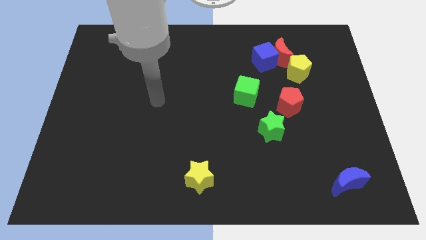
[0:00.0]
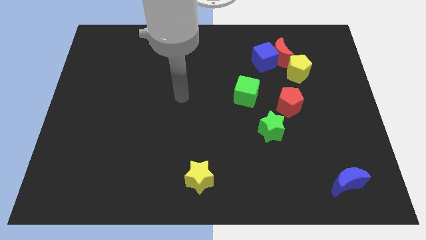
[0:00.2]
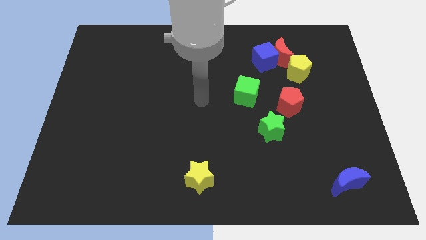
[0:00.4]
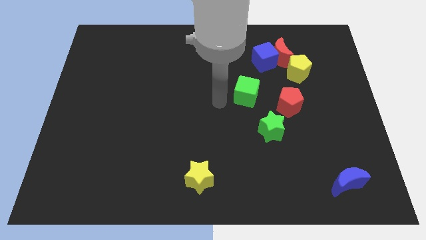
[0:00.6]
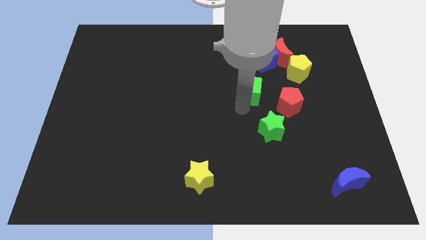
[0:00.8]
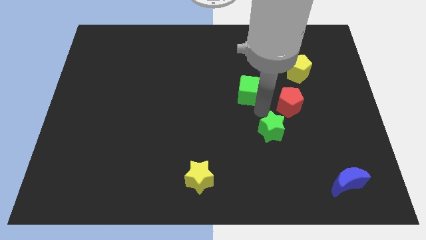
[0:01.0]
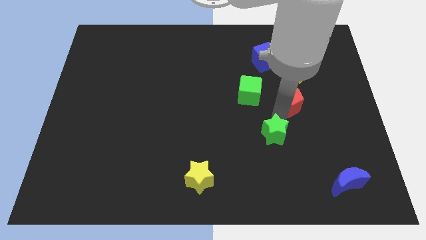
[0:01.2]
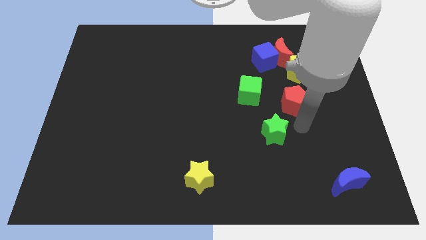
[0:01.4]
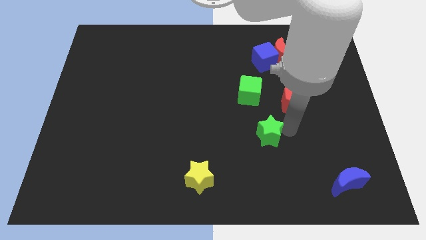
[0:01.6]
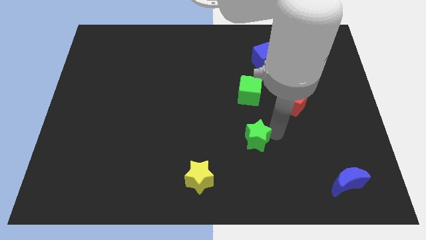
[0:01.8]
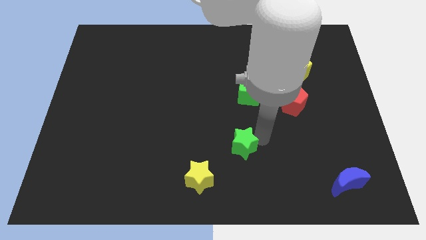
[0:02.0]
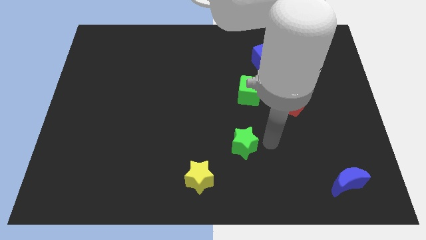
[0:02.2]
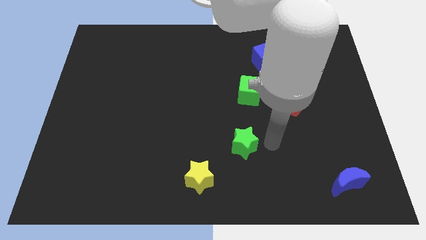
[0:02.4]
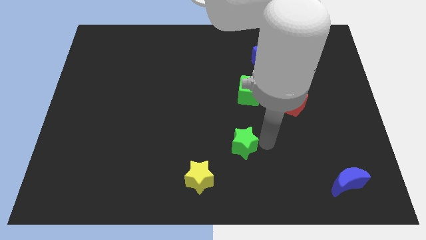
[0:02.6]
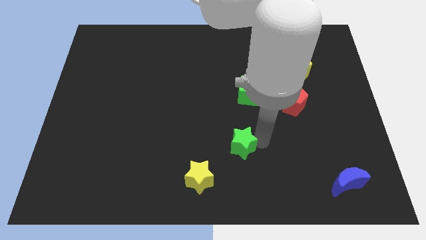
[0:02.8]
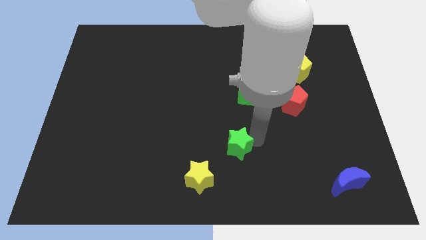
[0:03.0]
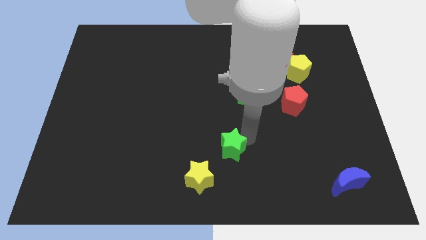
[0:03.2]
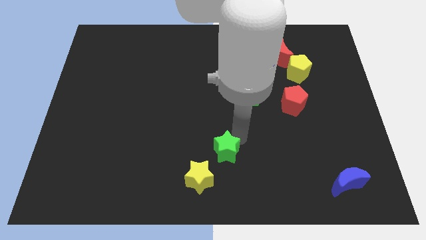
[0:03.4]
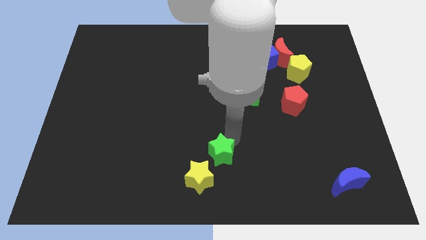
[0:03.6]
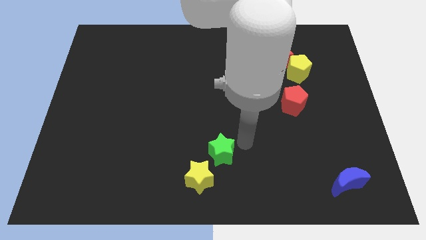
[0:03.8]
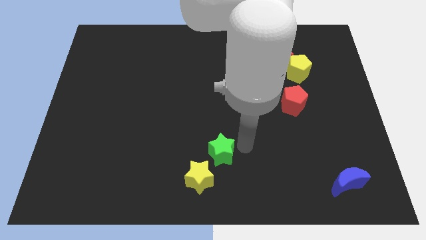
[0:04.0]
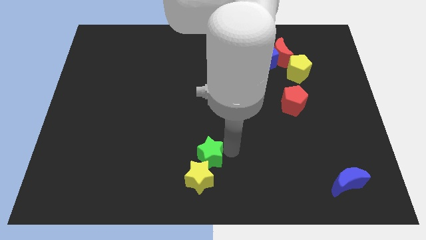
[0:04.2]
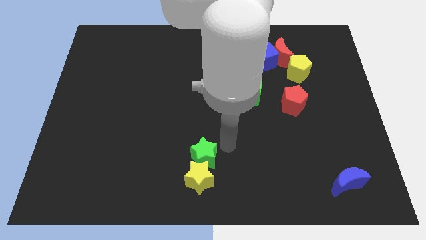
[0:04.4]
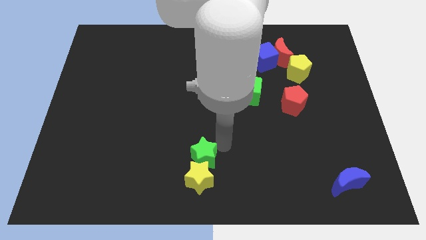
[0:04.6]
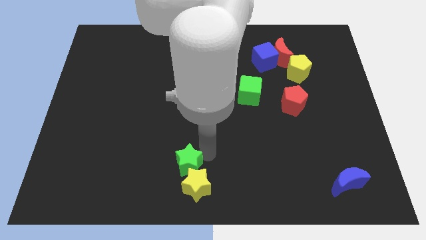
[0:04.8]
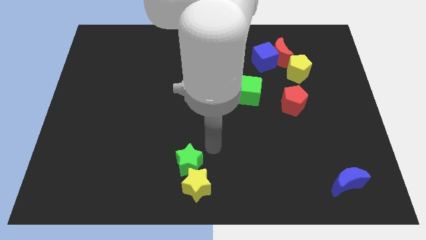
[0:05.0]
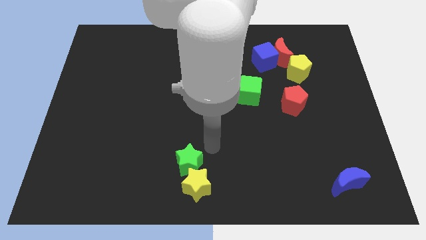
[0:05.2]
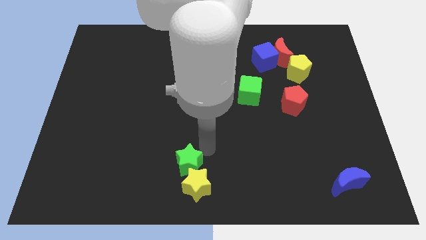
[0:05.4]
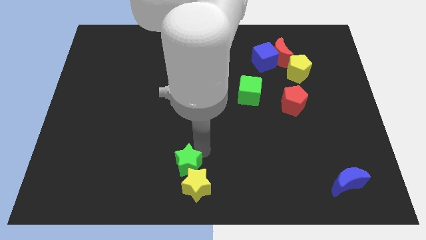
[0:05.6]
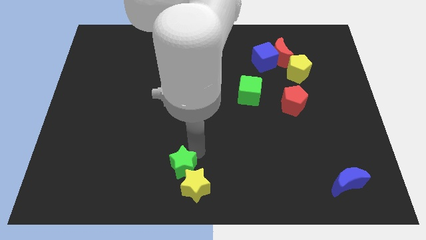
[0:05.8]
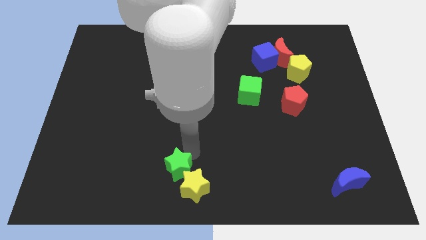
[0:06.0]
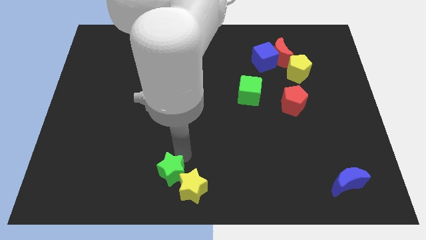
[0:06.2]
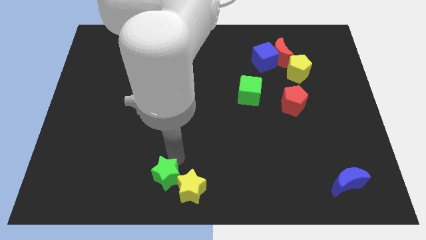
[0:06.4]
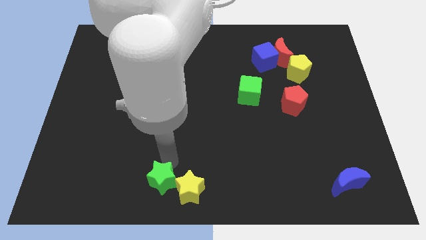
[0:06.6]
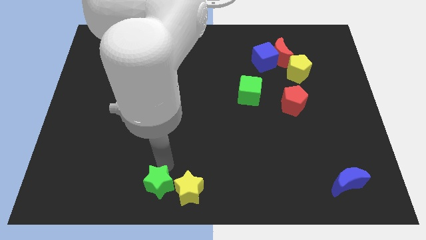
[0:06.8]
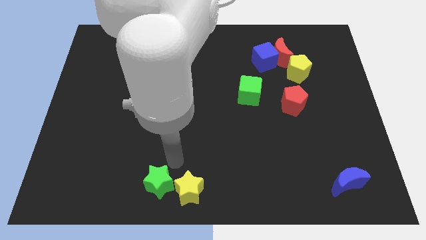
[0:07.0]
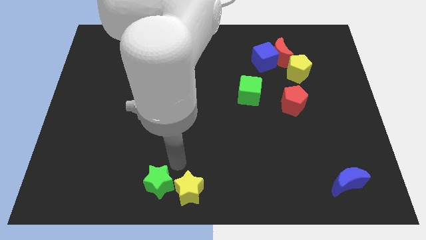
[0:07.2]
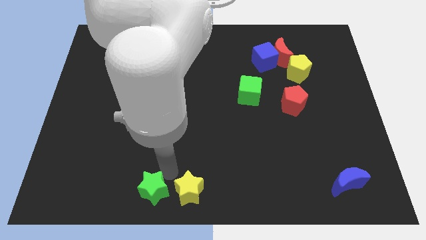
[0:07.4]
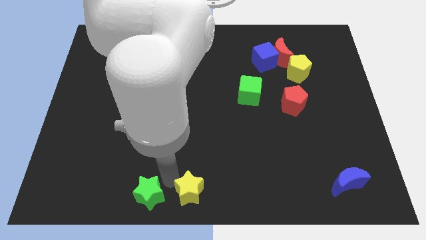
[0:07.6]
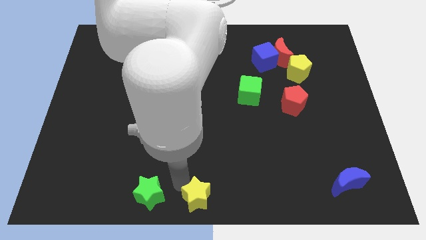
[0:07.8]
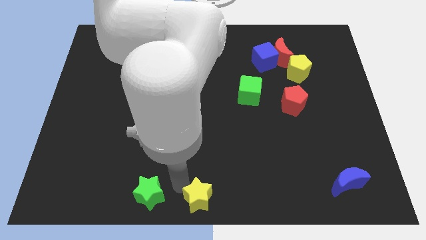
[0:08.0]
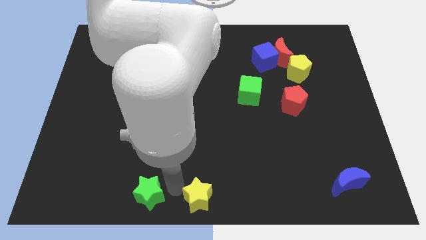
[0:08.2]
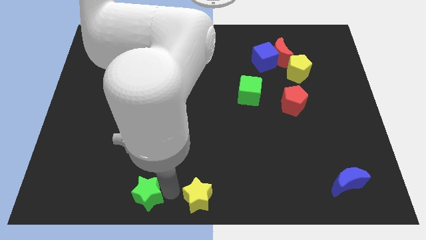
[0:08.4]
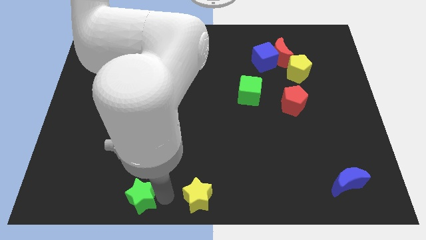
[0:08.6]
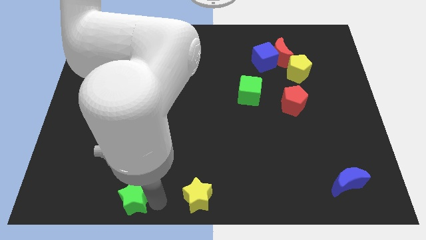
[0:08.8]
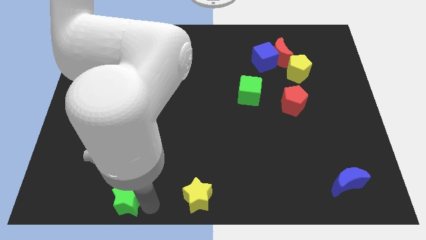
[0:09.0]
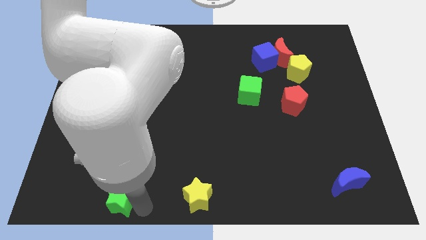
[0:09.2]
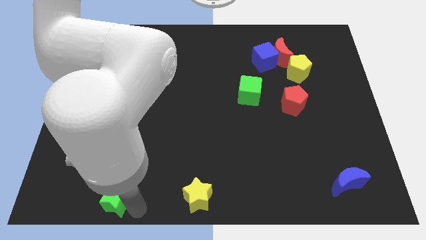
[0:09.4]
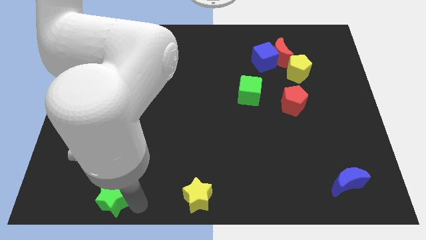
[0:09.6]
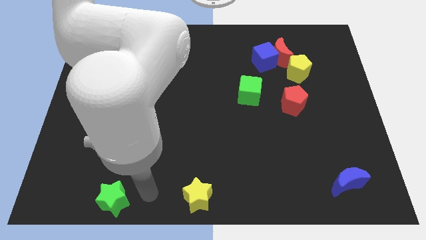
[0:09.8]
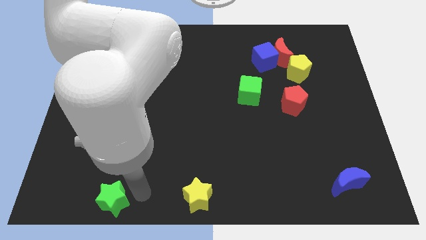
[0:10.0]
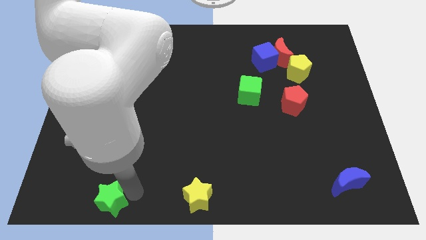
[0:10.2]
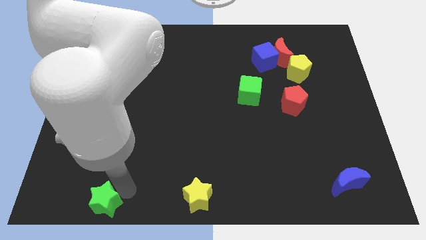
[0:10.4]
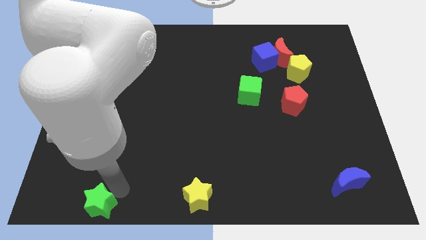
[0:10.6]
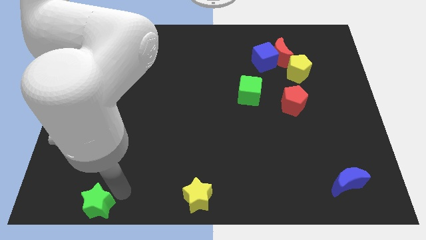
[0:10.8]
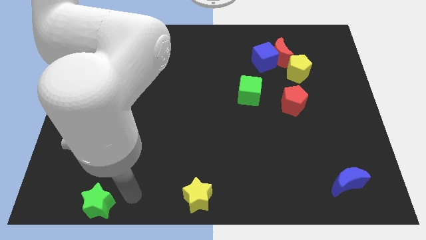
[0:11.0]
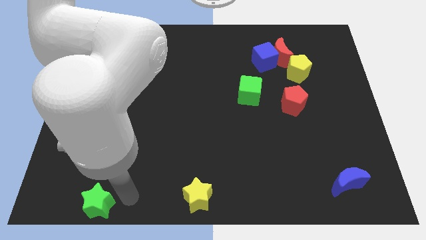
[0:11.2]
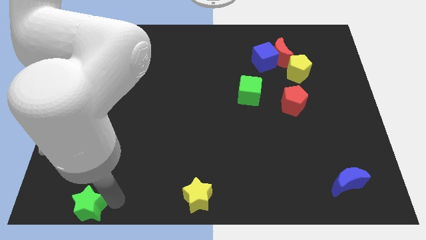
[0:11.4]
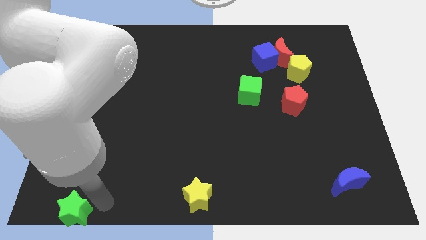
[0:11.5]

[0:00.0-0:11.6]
slide the green star to the lower left corner

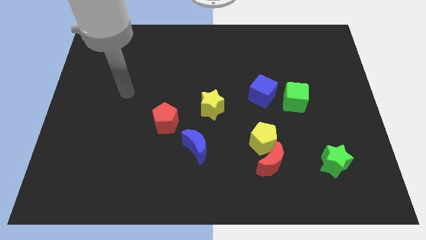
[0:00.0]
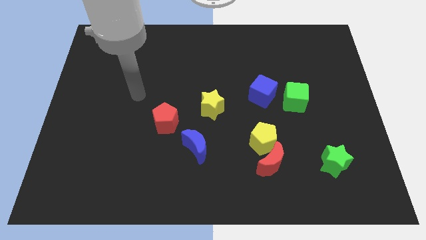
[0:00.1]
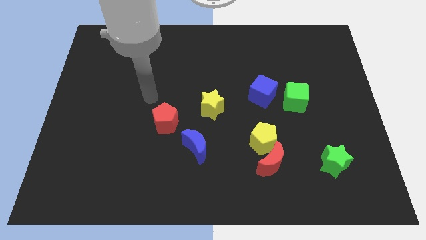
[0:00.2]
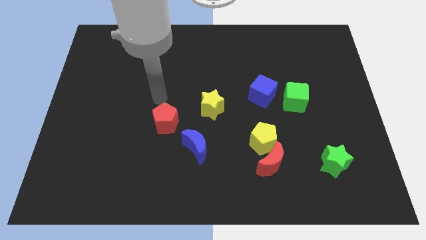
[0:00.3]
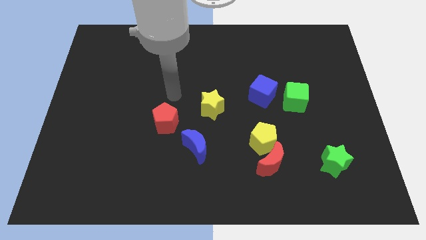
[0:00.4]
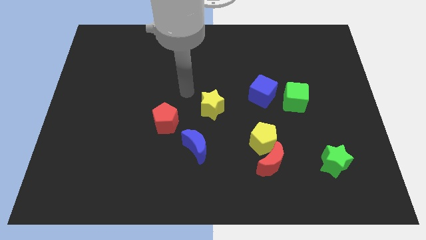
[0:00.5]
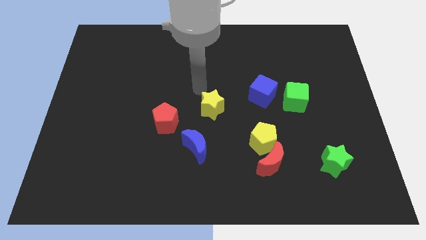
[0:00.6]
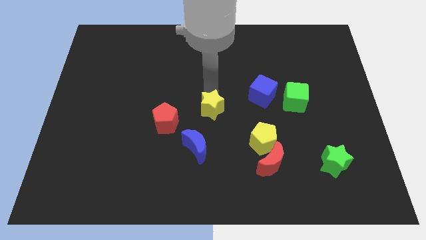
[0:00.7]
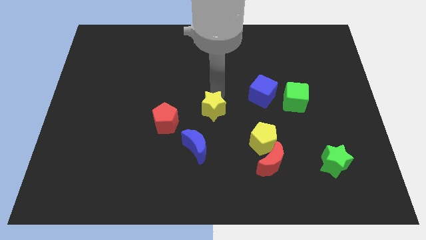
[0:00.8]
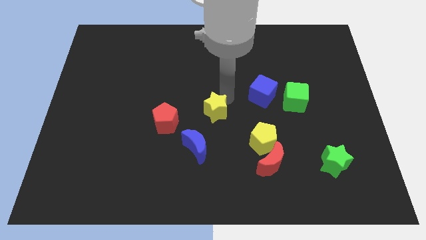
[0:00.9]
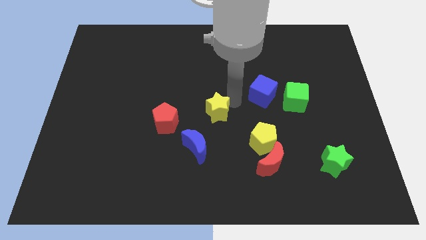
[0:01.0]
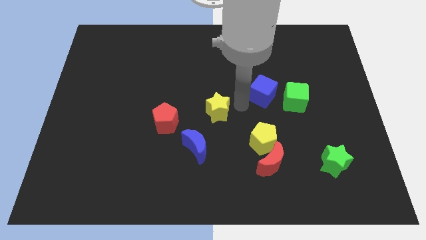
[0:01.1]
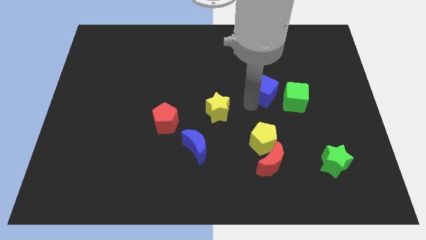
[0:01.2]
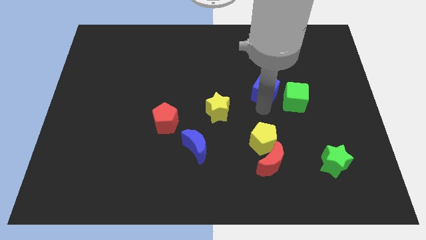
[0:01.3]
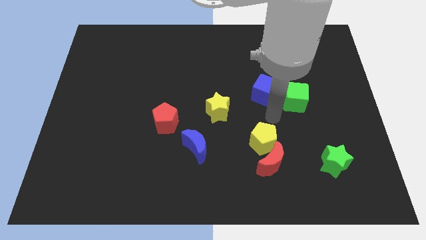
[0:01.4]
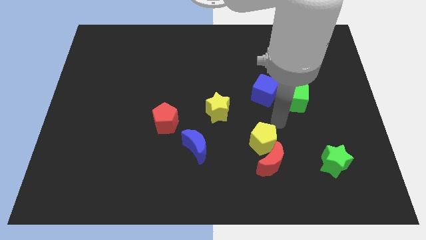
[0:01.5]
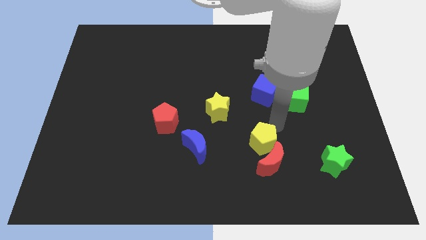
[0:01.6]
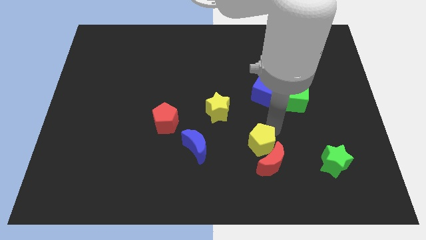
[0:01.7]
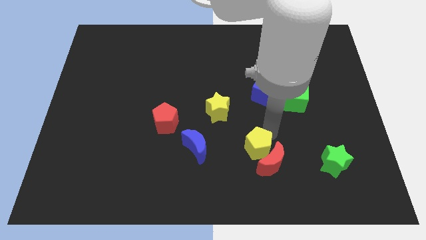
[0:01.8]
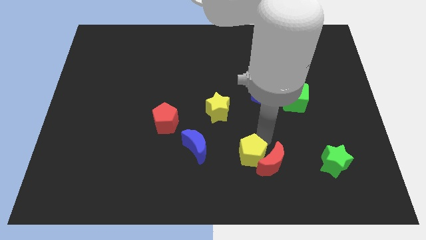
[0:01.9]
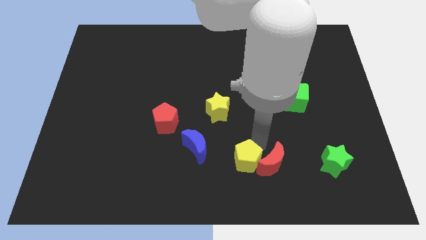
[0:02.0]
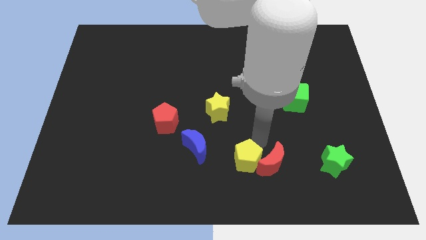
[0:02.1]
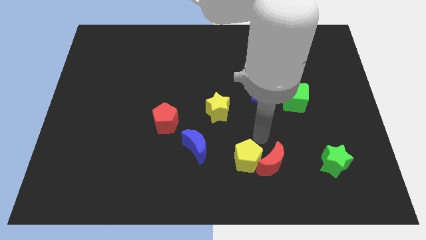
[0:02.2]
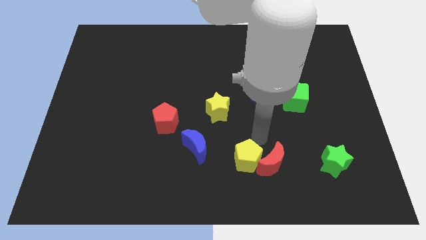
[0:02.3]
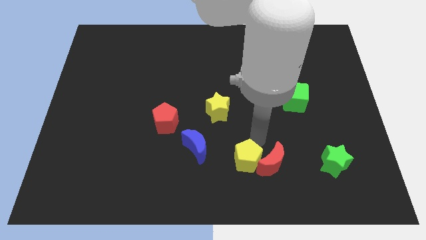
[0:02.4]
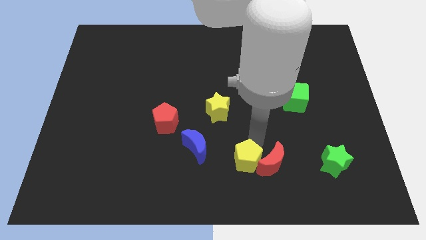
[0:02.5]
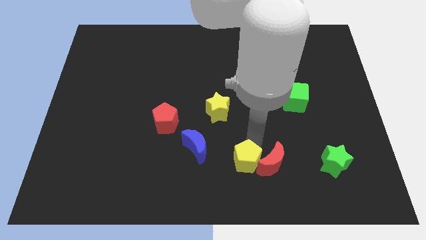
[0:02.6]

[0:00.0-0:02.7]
move the yellow pentagon to the bottom side
